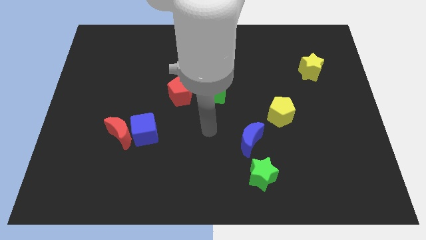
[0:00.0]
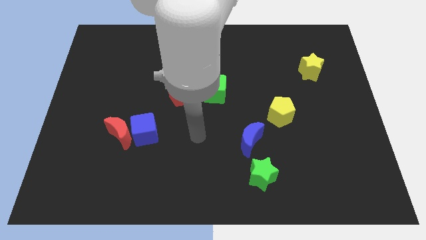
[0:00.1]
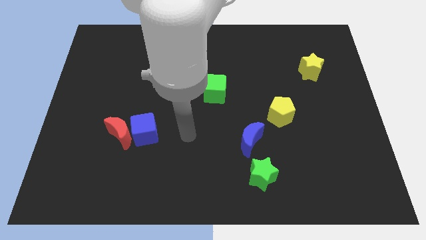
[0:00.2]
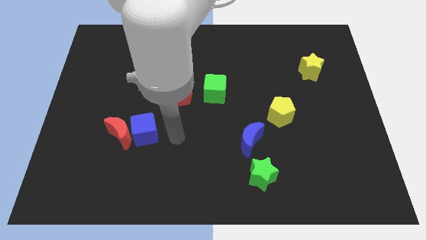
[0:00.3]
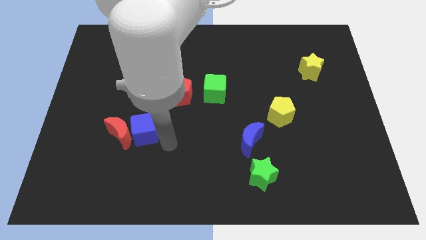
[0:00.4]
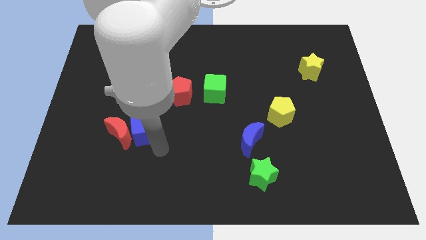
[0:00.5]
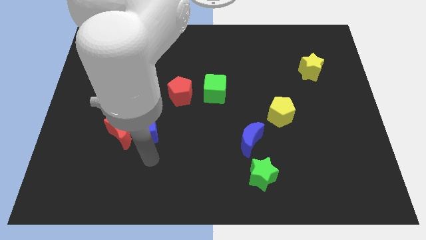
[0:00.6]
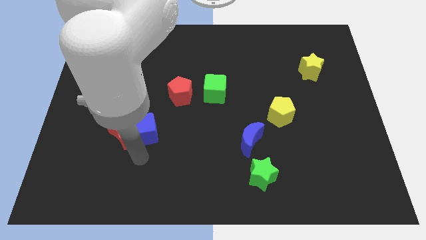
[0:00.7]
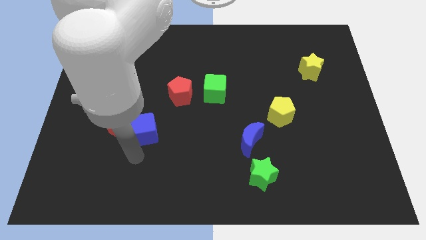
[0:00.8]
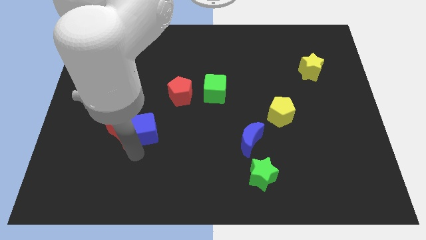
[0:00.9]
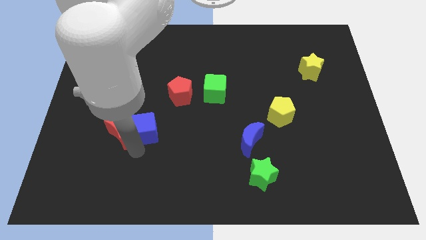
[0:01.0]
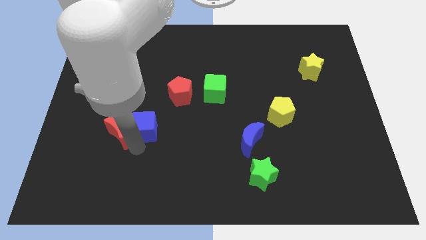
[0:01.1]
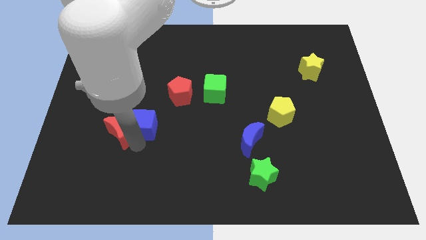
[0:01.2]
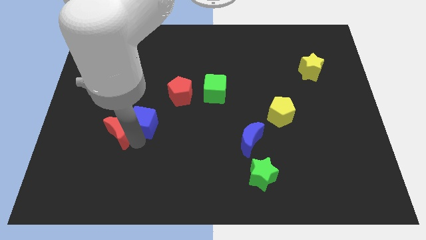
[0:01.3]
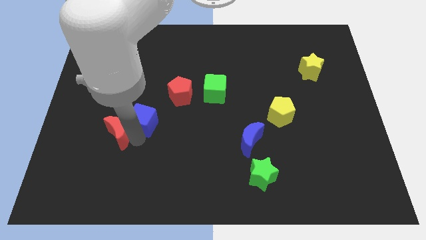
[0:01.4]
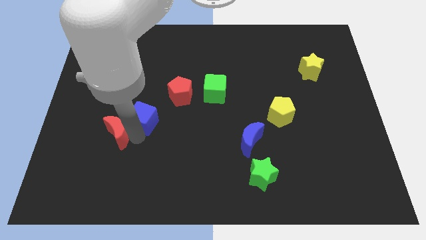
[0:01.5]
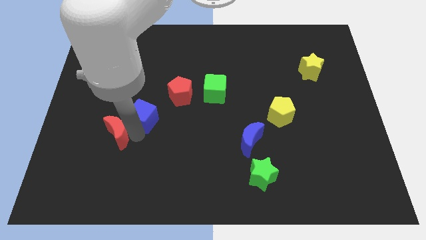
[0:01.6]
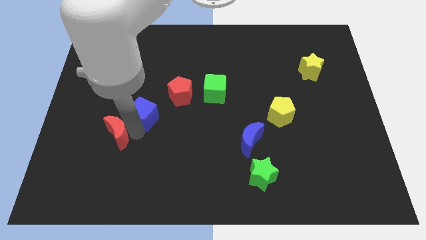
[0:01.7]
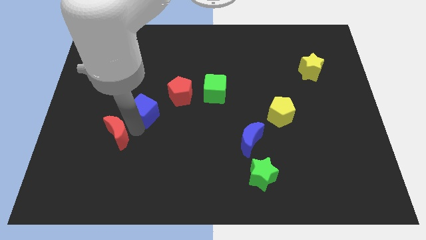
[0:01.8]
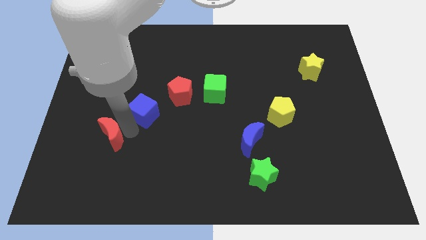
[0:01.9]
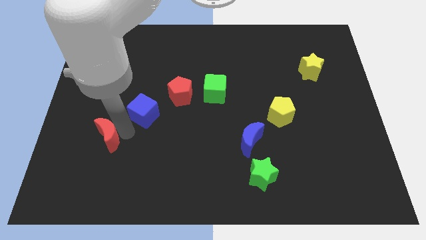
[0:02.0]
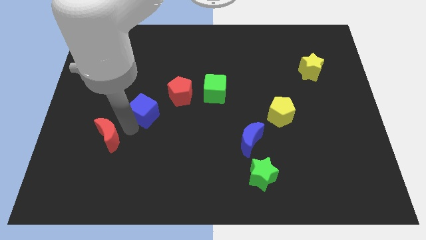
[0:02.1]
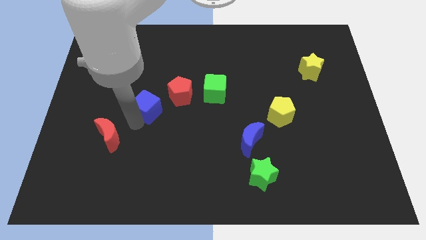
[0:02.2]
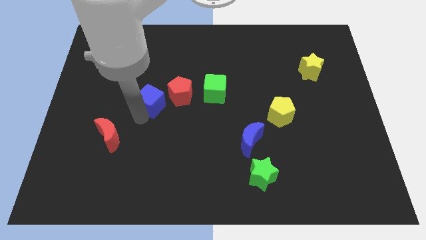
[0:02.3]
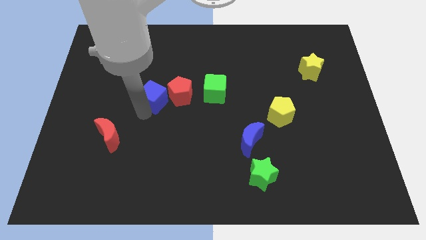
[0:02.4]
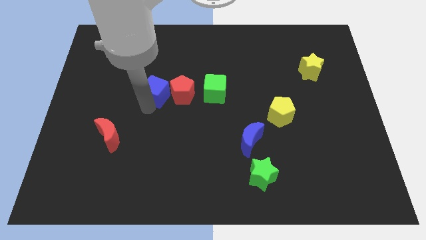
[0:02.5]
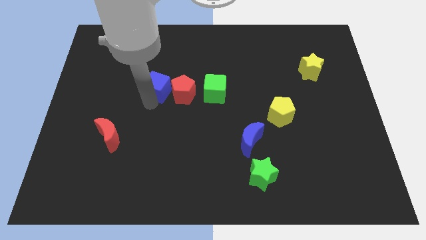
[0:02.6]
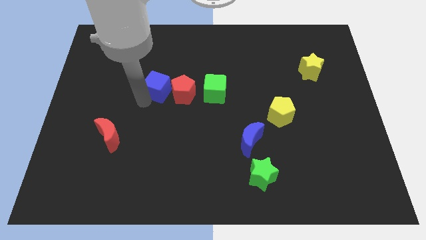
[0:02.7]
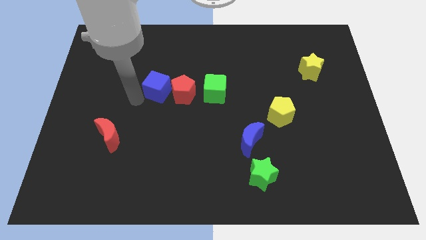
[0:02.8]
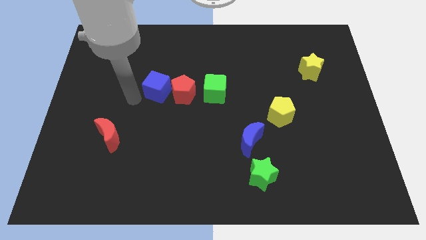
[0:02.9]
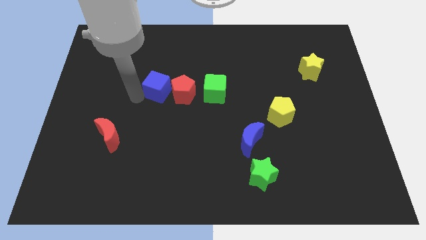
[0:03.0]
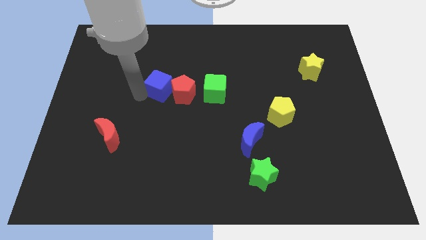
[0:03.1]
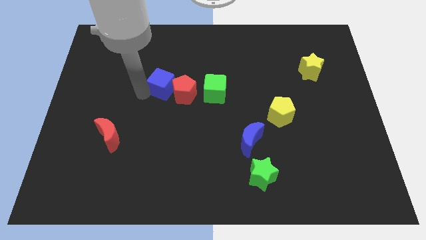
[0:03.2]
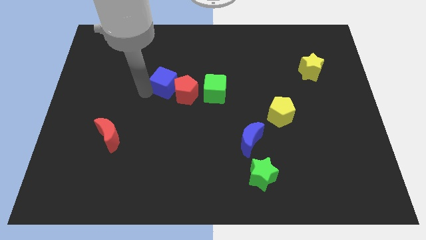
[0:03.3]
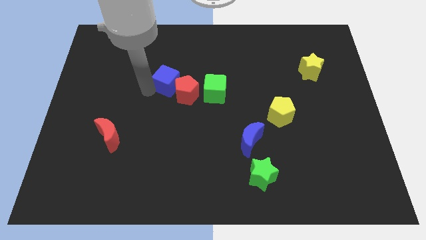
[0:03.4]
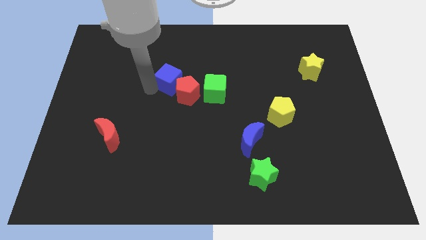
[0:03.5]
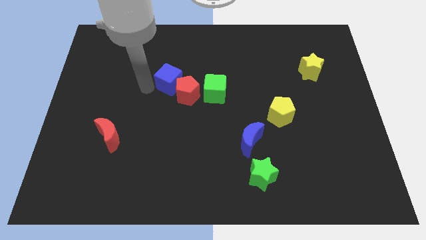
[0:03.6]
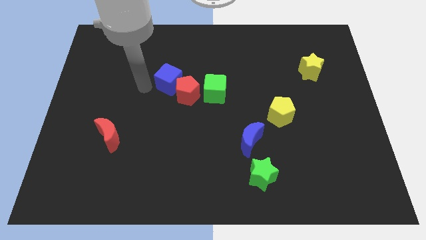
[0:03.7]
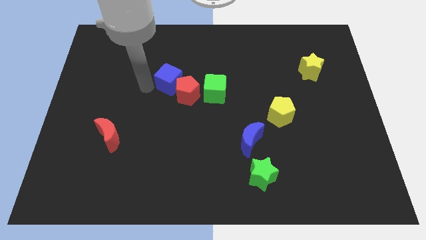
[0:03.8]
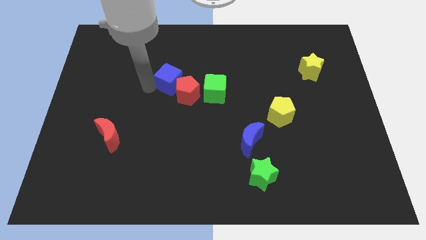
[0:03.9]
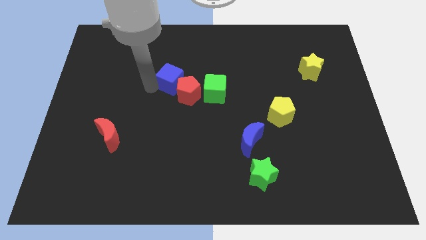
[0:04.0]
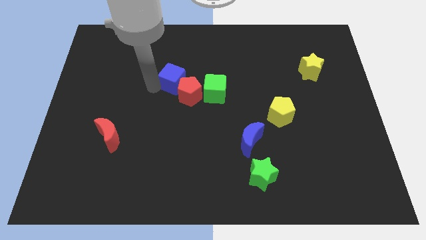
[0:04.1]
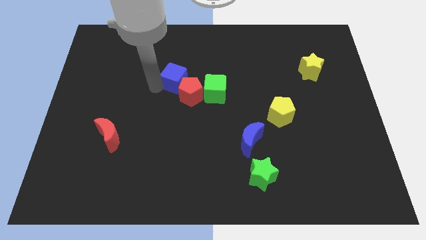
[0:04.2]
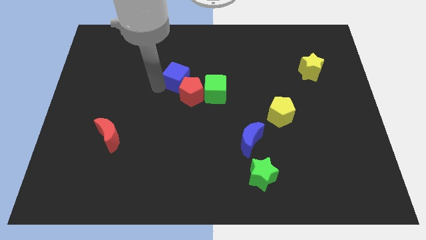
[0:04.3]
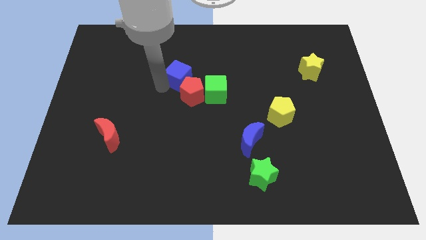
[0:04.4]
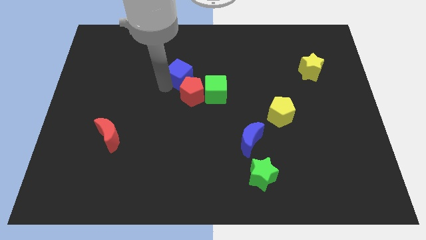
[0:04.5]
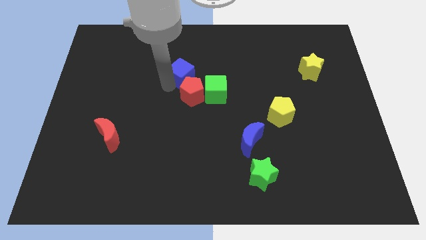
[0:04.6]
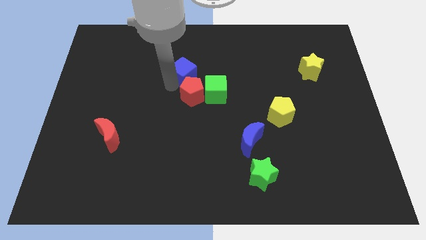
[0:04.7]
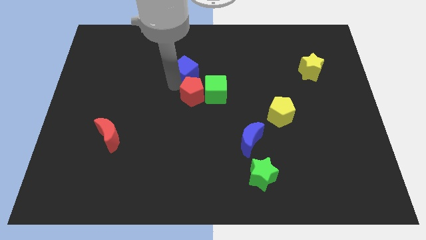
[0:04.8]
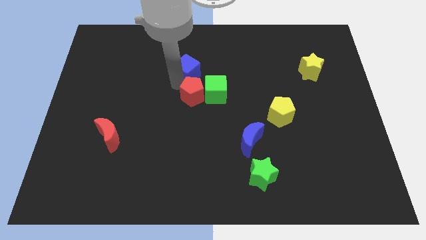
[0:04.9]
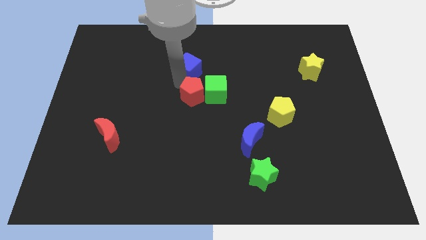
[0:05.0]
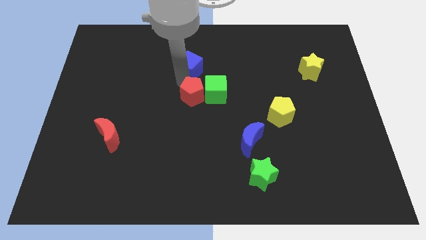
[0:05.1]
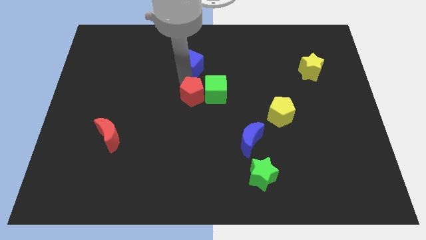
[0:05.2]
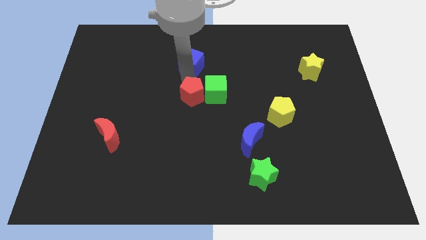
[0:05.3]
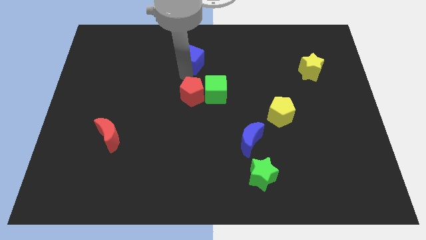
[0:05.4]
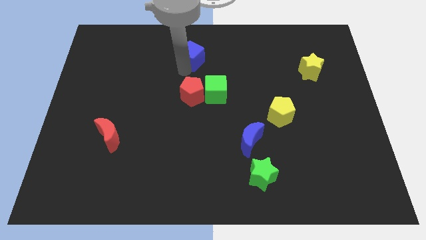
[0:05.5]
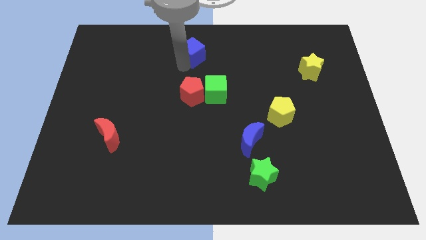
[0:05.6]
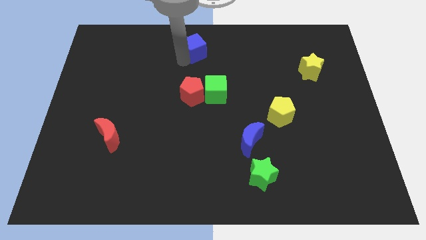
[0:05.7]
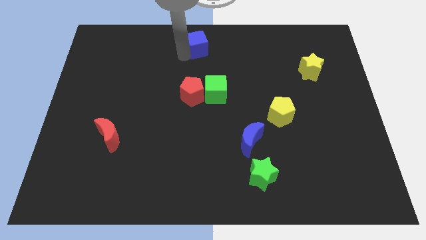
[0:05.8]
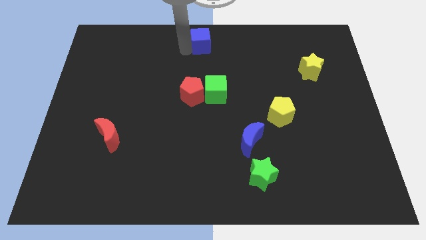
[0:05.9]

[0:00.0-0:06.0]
move the blue cube upwards and to the right

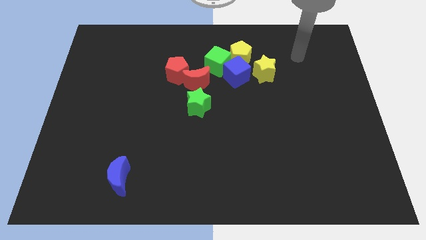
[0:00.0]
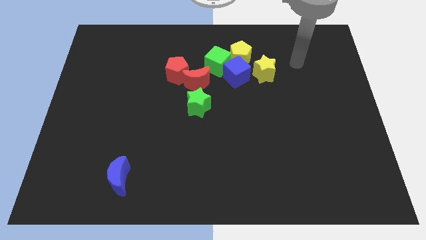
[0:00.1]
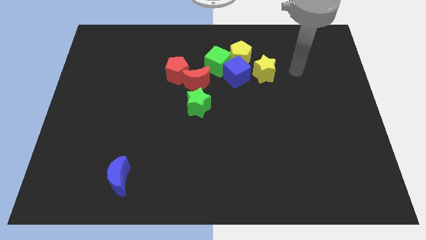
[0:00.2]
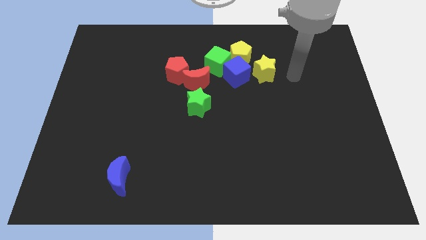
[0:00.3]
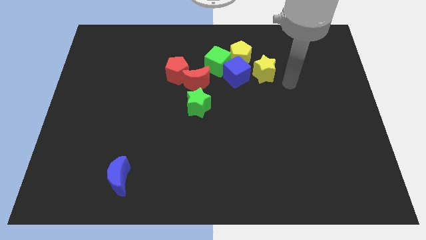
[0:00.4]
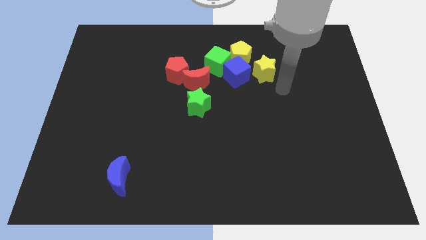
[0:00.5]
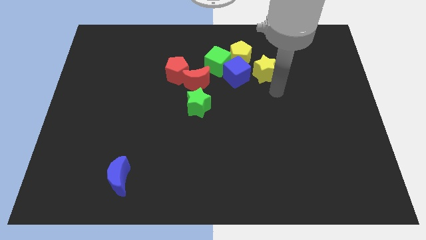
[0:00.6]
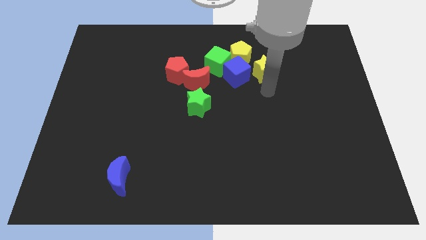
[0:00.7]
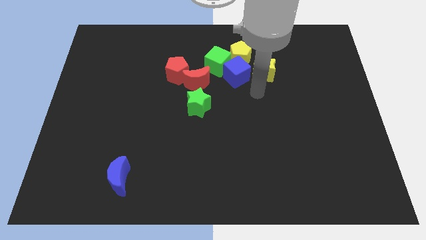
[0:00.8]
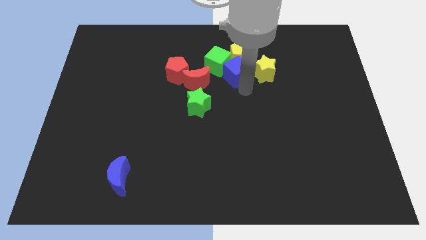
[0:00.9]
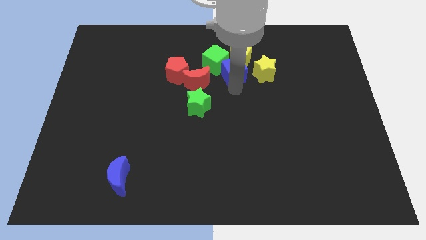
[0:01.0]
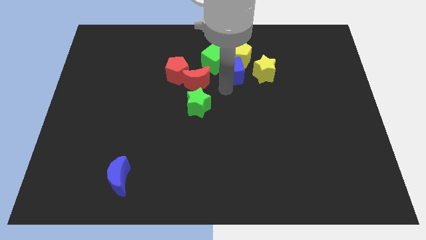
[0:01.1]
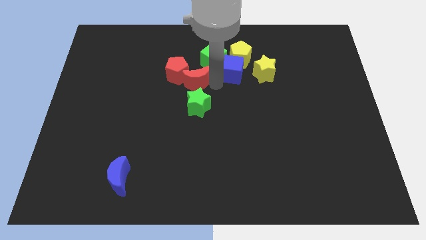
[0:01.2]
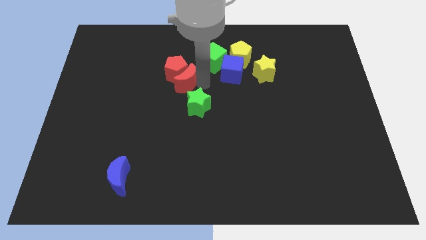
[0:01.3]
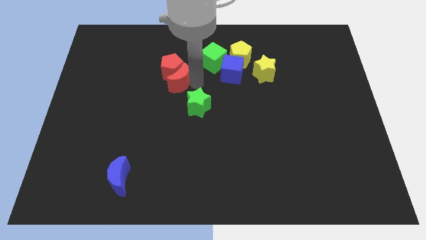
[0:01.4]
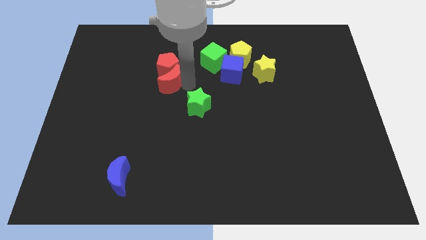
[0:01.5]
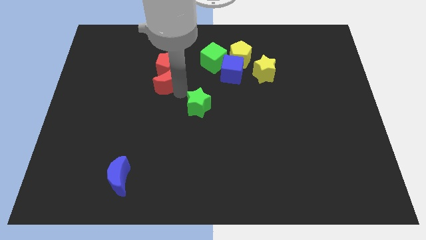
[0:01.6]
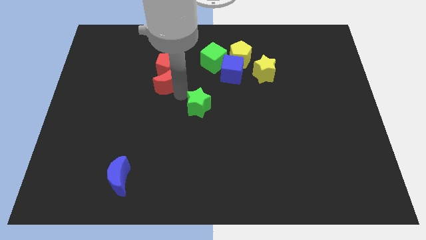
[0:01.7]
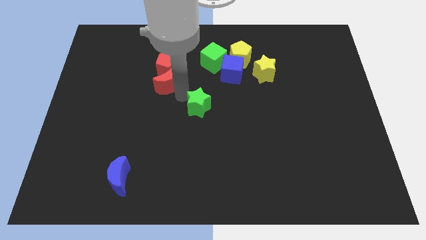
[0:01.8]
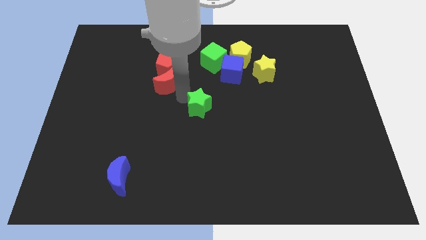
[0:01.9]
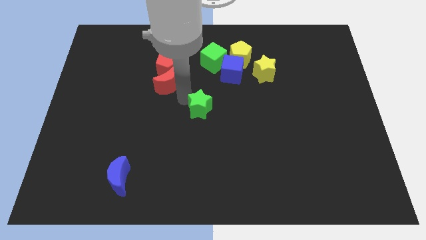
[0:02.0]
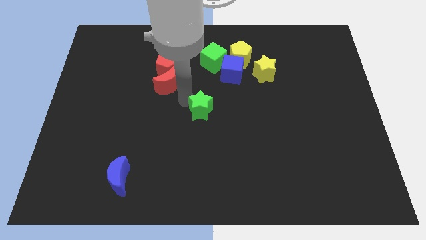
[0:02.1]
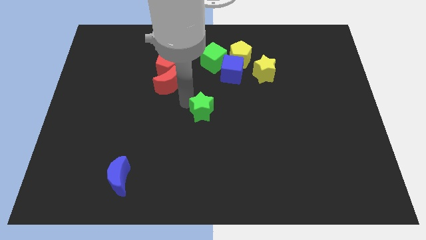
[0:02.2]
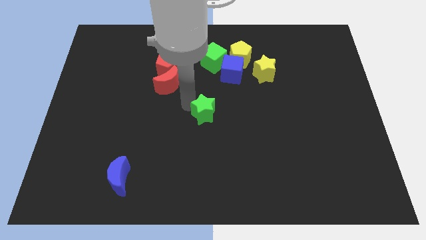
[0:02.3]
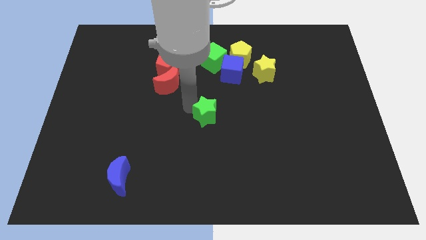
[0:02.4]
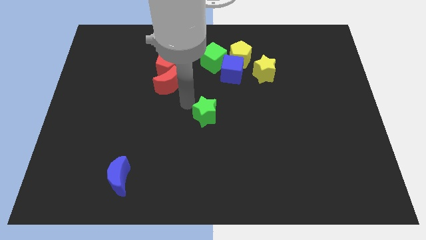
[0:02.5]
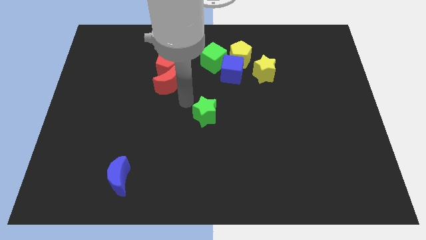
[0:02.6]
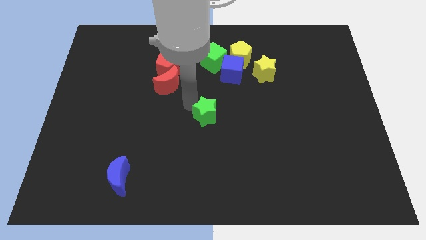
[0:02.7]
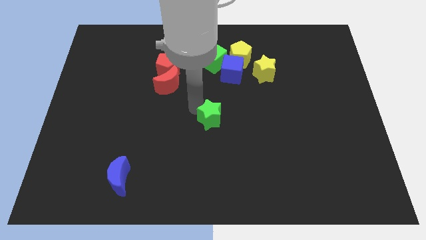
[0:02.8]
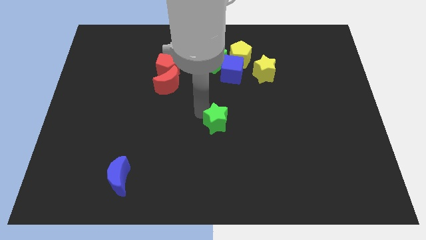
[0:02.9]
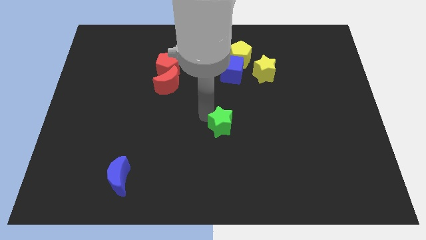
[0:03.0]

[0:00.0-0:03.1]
slightly push the green star diagonally downwards and to the right
